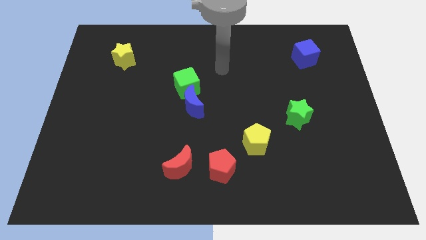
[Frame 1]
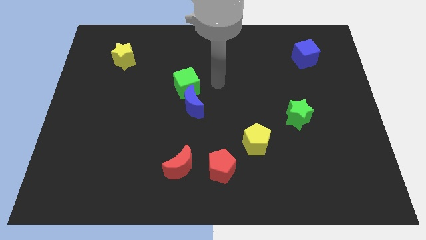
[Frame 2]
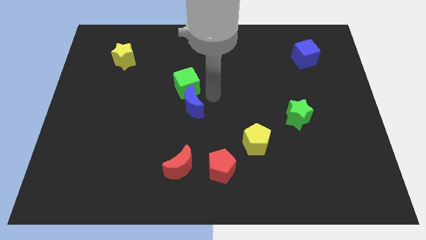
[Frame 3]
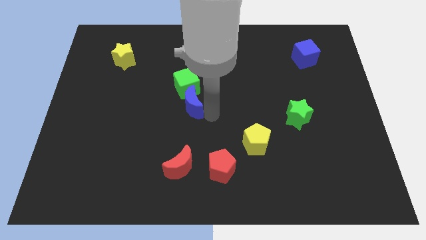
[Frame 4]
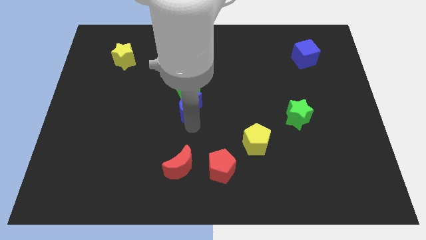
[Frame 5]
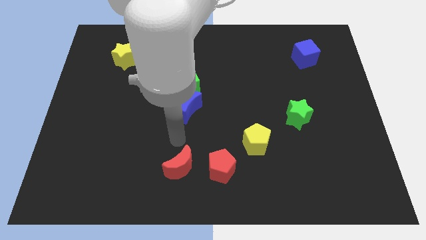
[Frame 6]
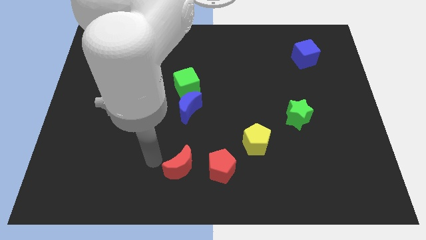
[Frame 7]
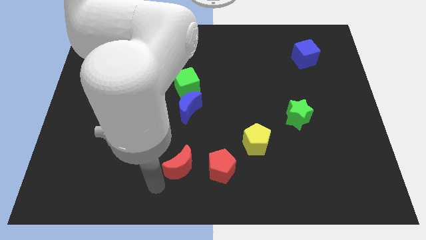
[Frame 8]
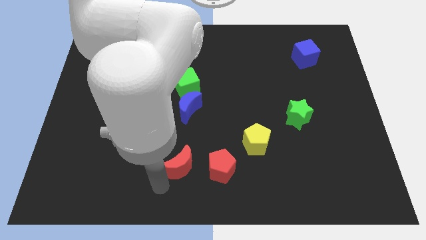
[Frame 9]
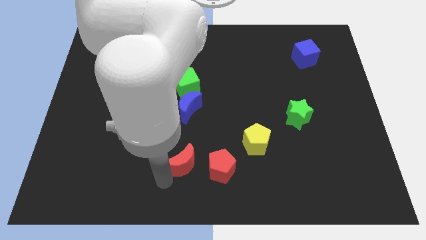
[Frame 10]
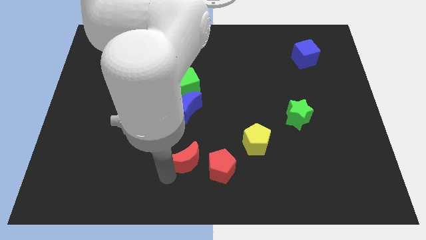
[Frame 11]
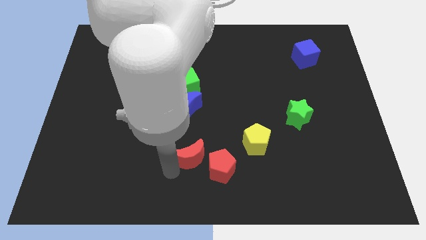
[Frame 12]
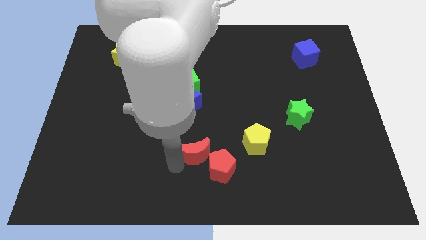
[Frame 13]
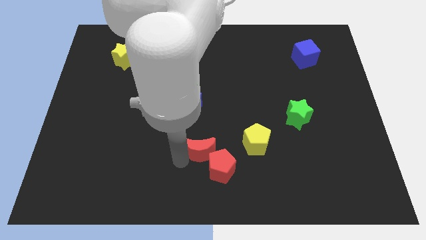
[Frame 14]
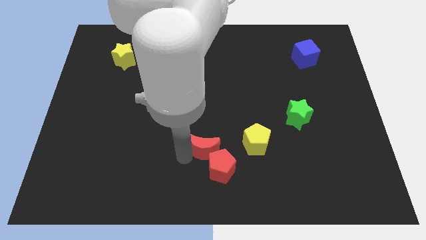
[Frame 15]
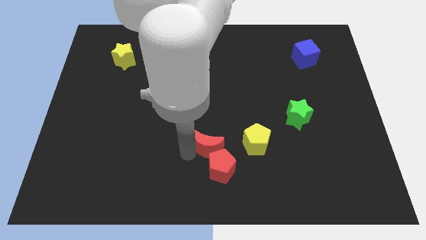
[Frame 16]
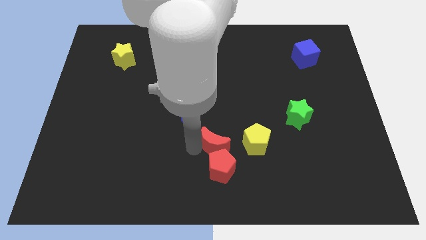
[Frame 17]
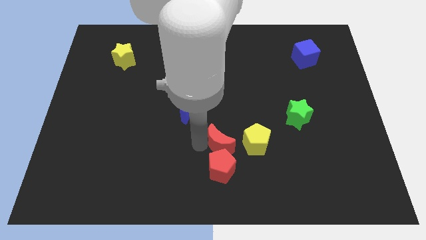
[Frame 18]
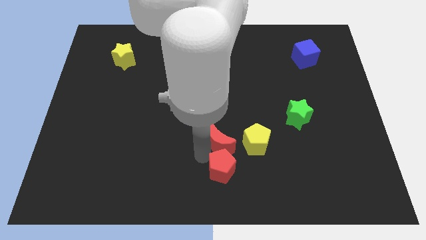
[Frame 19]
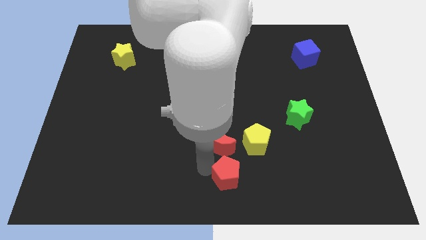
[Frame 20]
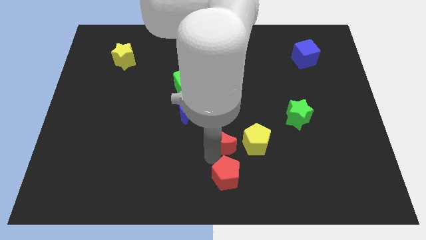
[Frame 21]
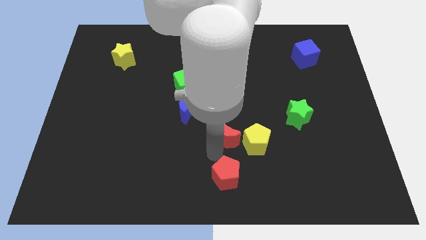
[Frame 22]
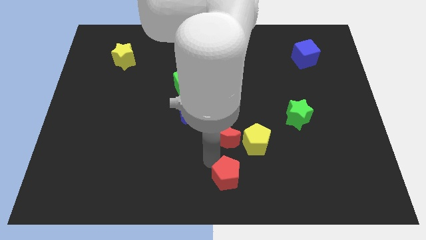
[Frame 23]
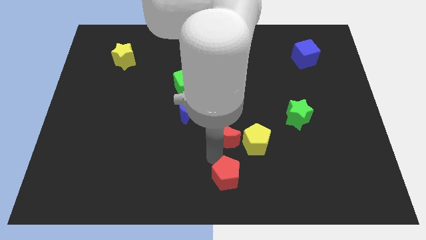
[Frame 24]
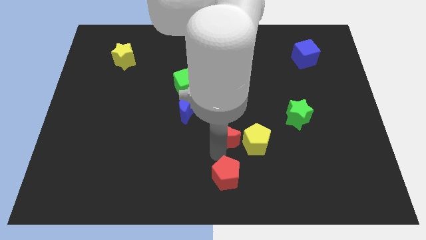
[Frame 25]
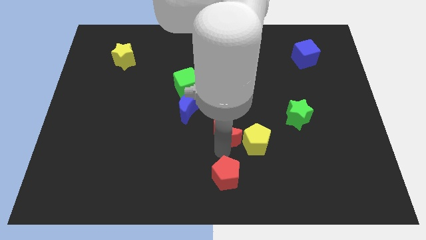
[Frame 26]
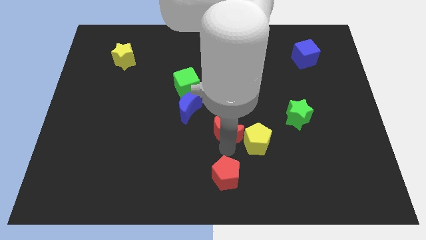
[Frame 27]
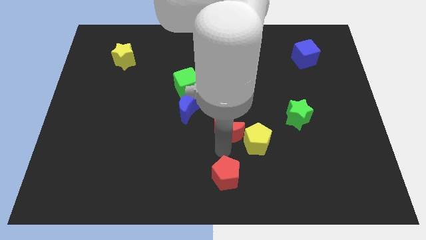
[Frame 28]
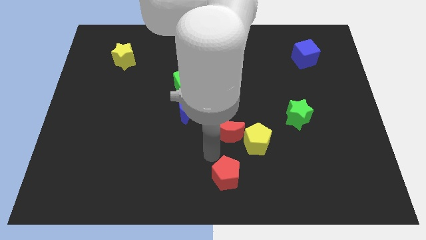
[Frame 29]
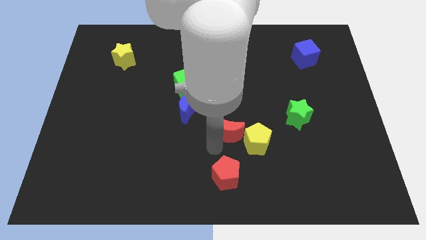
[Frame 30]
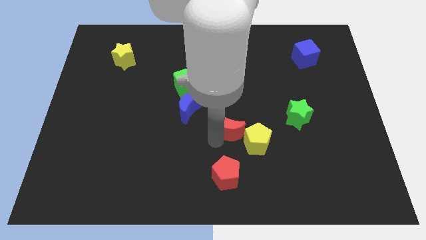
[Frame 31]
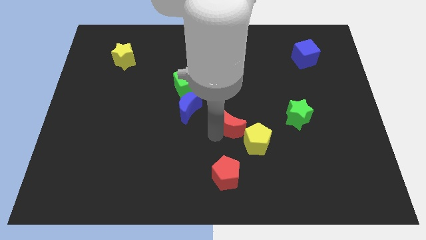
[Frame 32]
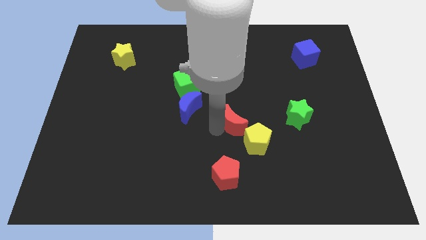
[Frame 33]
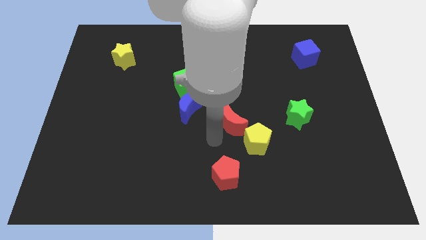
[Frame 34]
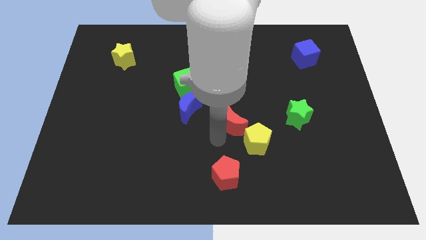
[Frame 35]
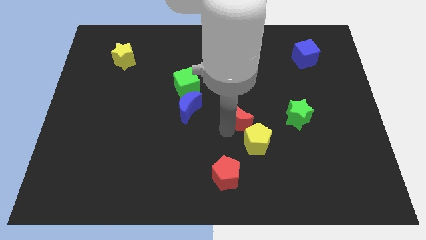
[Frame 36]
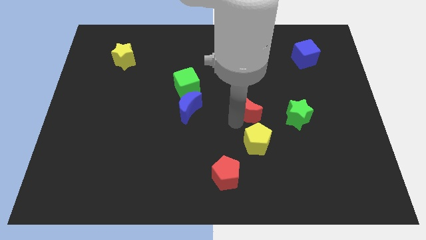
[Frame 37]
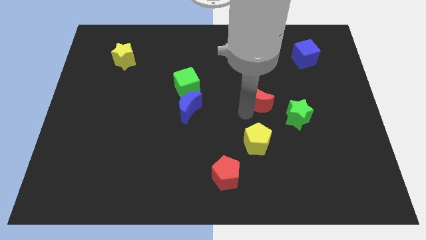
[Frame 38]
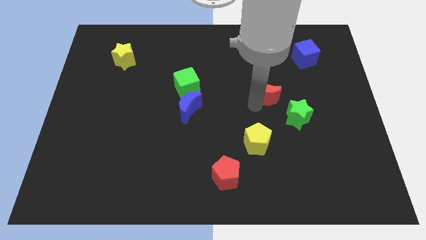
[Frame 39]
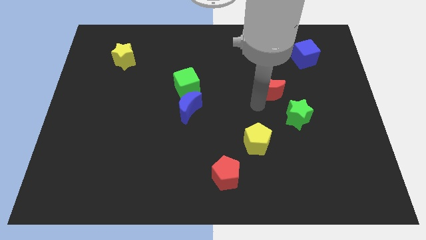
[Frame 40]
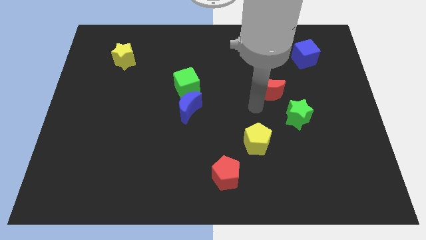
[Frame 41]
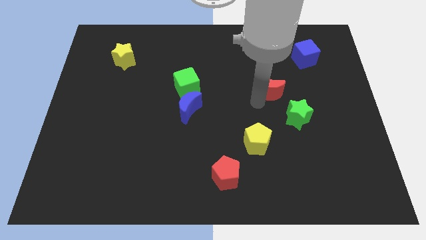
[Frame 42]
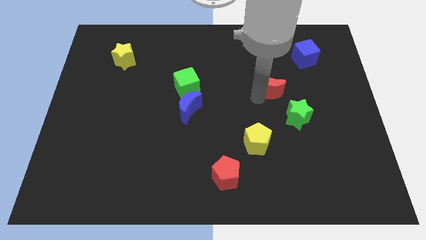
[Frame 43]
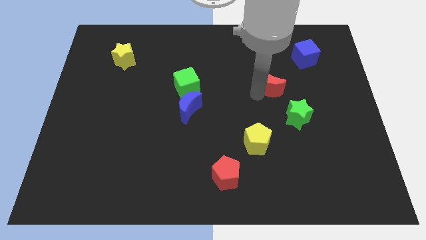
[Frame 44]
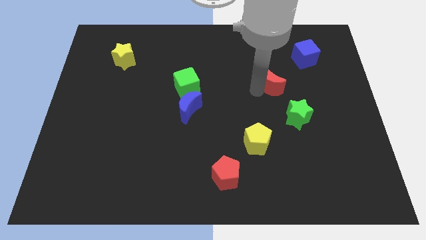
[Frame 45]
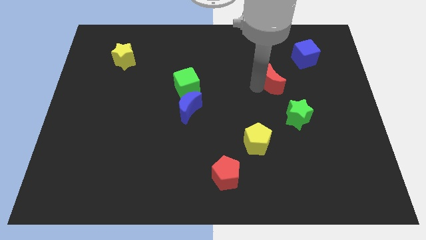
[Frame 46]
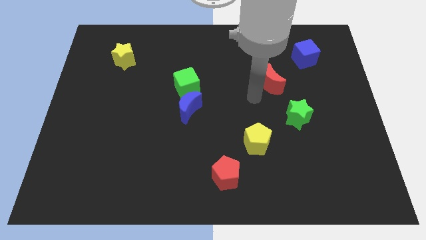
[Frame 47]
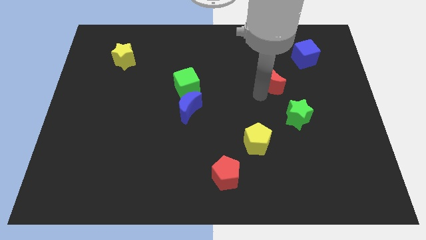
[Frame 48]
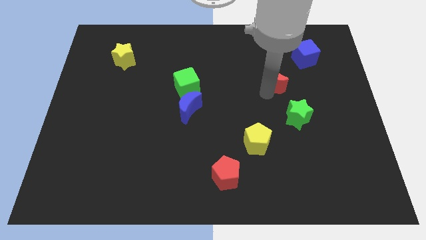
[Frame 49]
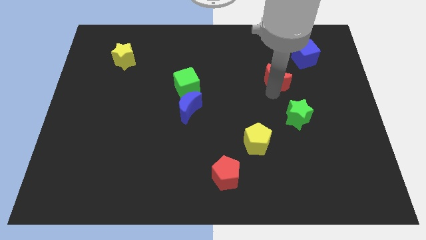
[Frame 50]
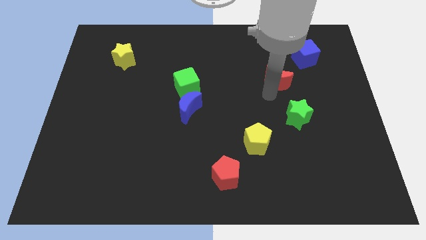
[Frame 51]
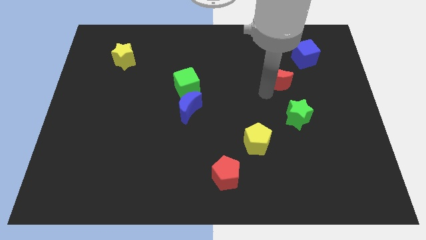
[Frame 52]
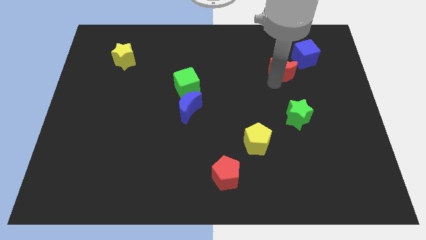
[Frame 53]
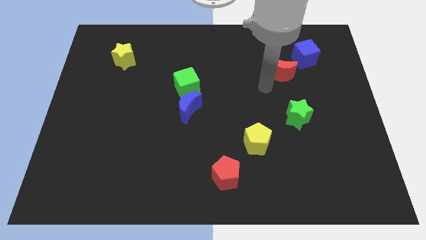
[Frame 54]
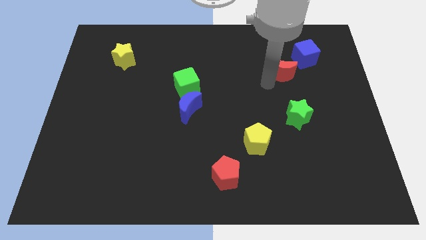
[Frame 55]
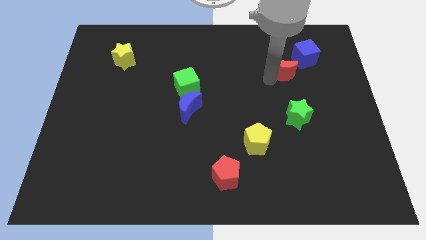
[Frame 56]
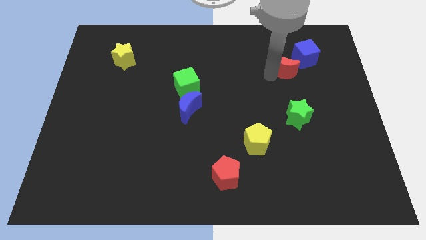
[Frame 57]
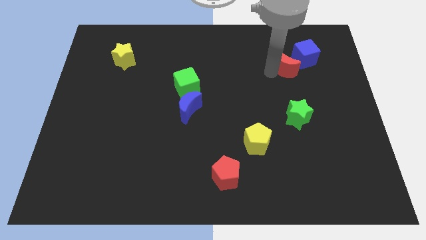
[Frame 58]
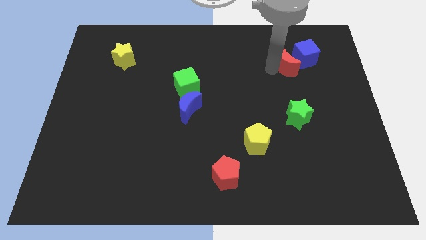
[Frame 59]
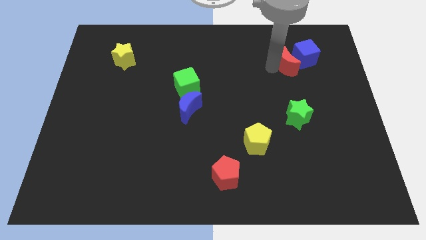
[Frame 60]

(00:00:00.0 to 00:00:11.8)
move the red moon to the blue cube

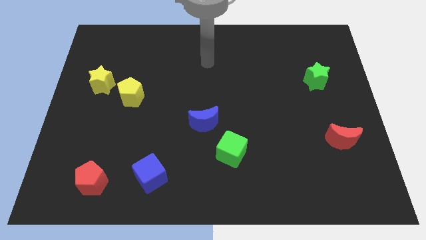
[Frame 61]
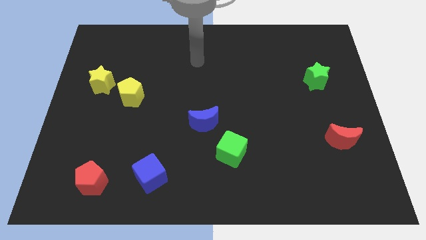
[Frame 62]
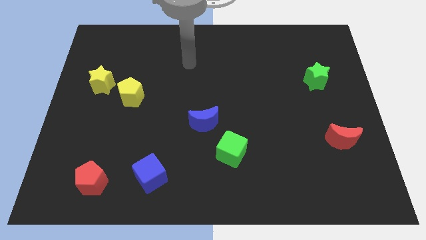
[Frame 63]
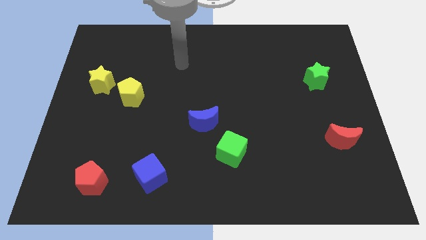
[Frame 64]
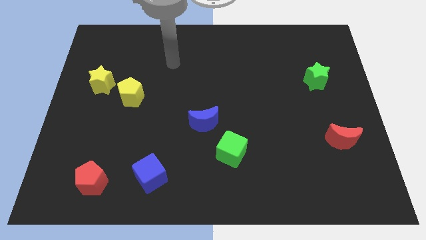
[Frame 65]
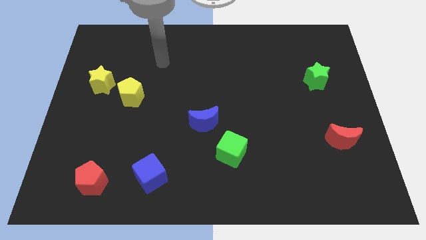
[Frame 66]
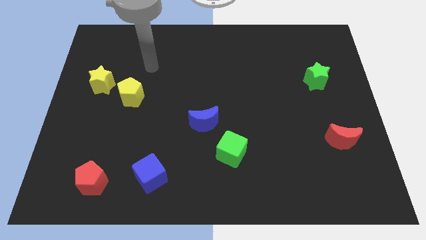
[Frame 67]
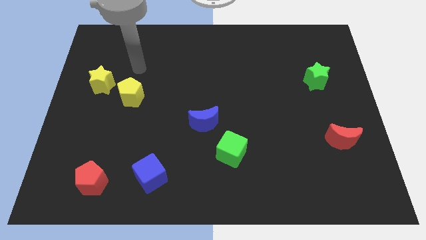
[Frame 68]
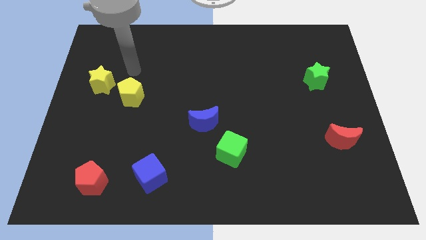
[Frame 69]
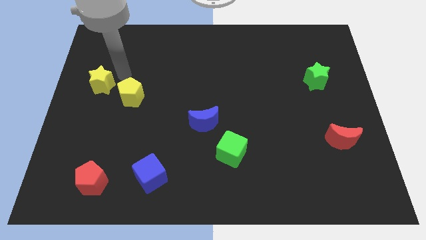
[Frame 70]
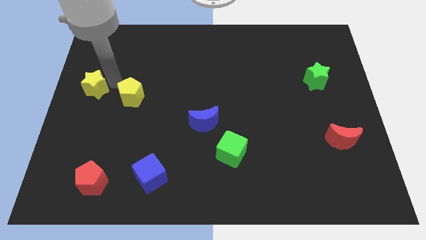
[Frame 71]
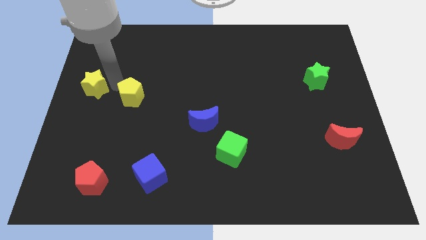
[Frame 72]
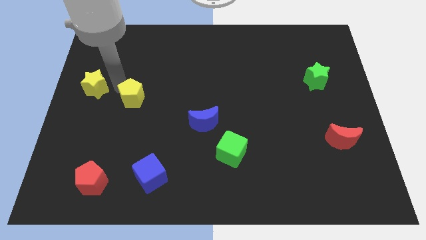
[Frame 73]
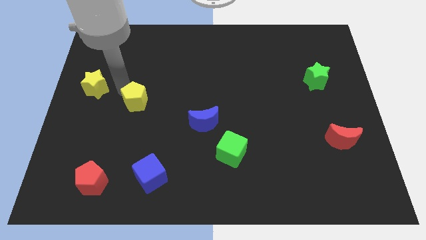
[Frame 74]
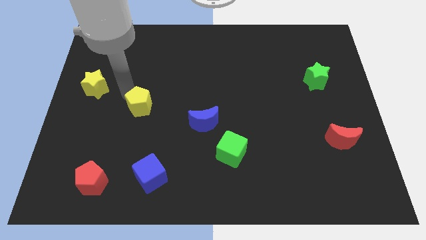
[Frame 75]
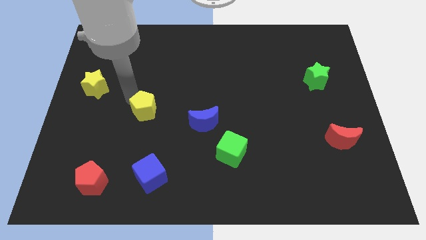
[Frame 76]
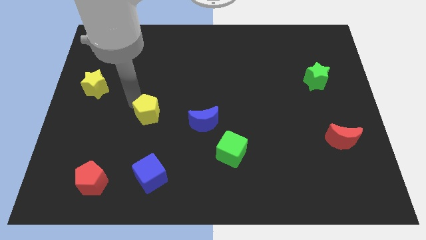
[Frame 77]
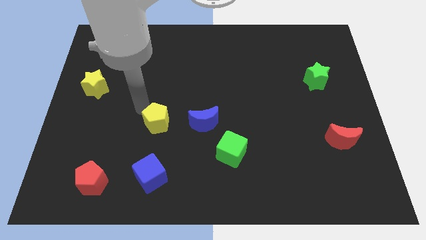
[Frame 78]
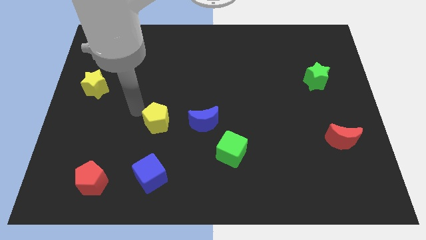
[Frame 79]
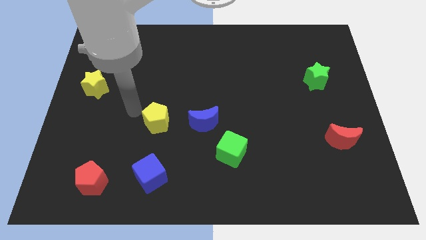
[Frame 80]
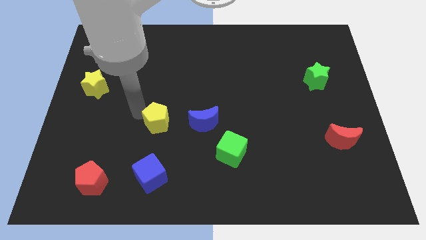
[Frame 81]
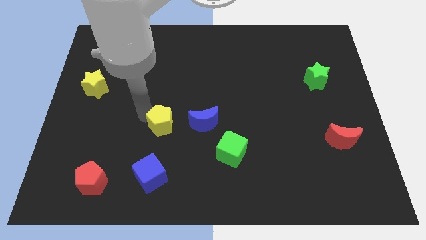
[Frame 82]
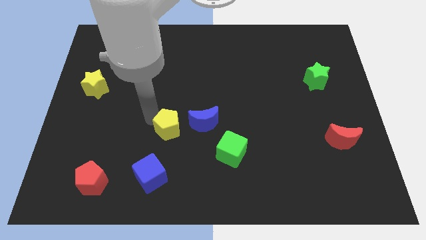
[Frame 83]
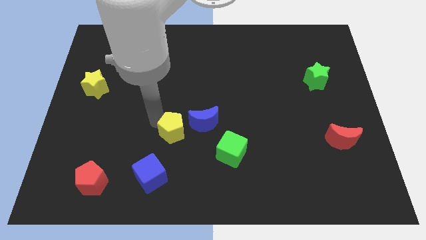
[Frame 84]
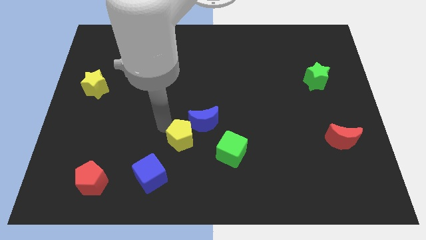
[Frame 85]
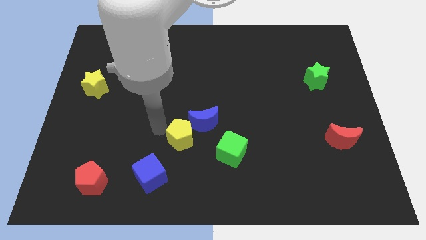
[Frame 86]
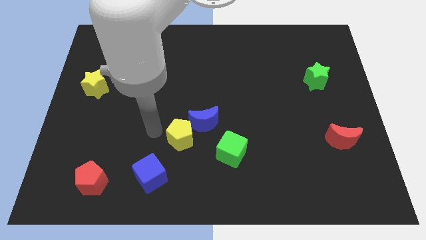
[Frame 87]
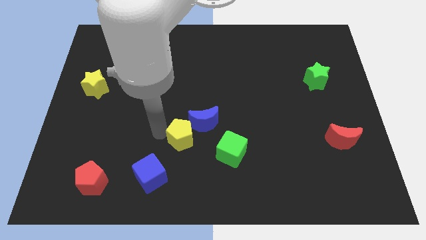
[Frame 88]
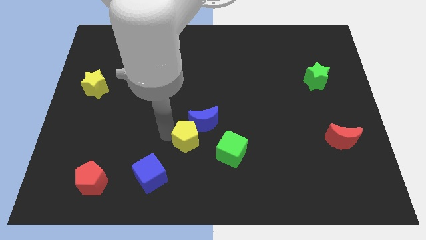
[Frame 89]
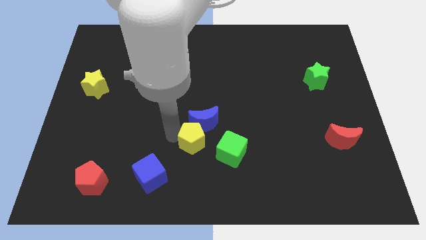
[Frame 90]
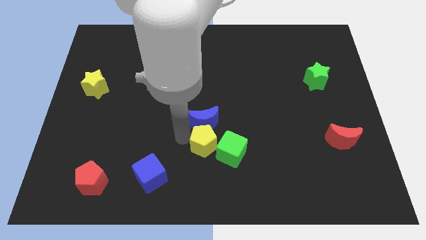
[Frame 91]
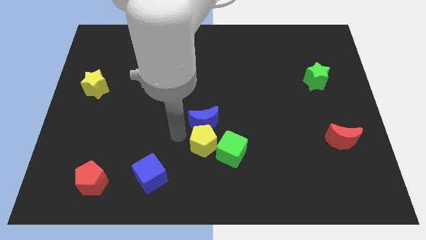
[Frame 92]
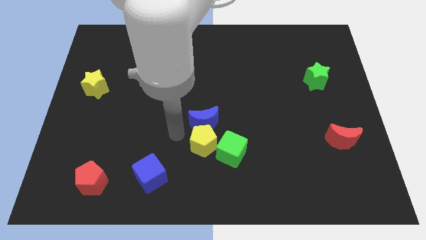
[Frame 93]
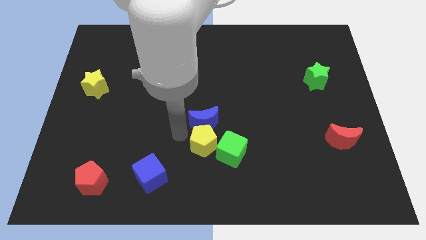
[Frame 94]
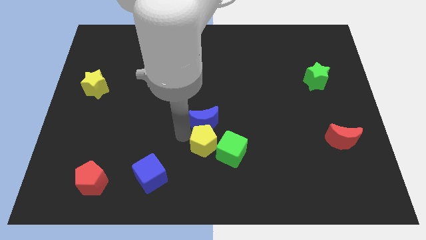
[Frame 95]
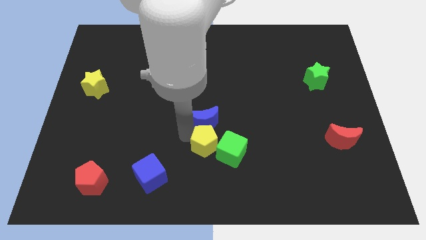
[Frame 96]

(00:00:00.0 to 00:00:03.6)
slide the yellow pentagon close to the green cube
